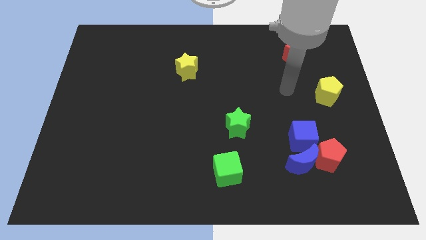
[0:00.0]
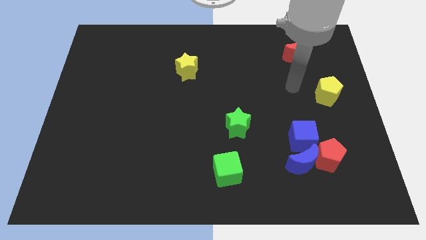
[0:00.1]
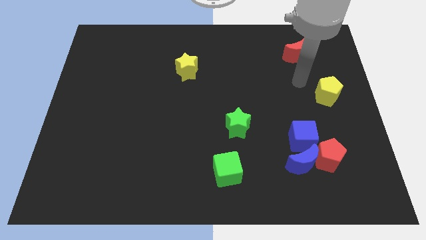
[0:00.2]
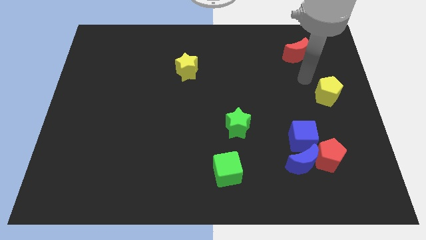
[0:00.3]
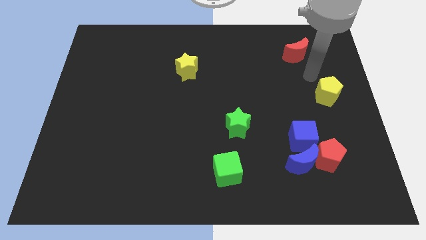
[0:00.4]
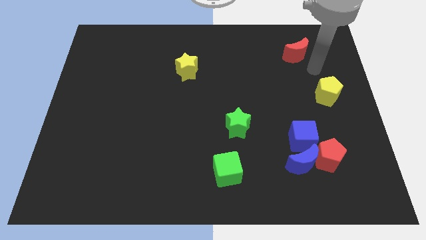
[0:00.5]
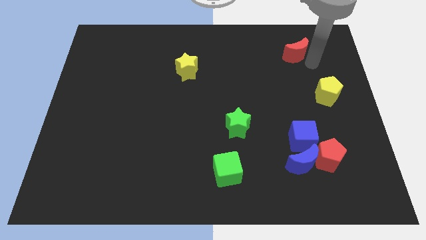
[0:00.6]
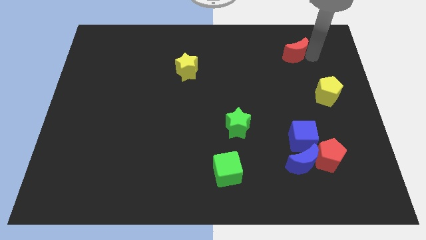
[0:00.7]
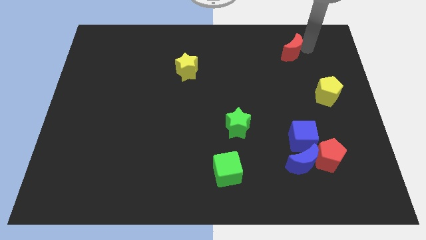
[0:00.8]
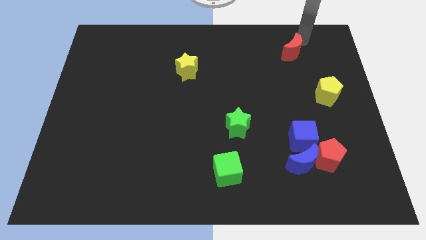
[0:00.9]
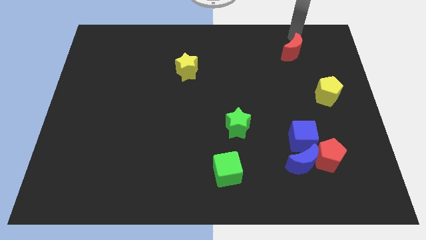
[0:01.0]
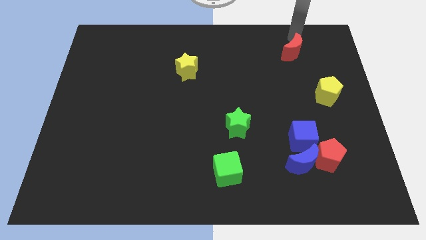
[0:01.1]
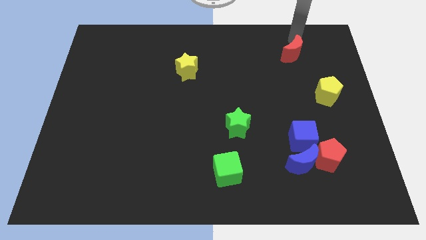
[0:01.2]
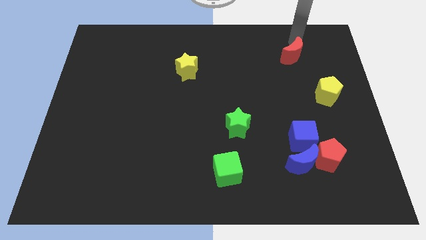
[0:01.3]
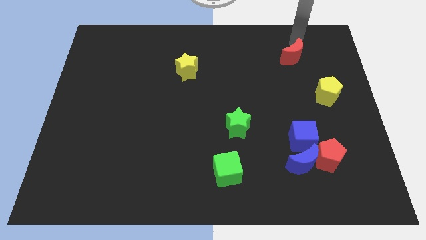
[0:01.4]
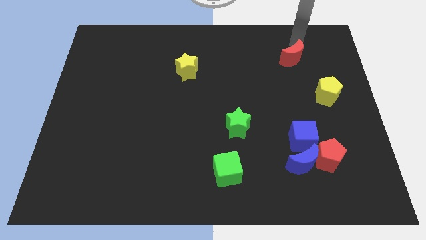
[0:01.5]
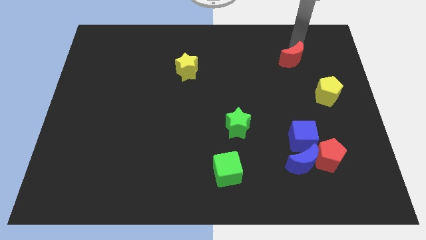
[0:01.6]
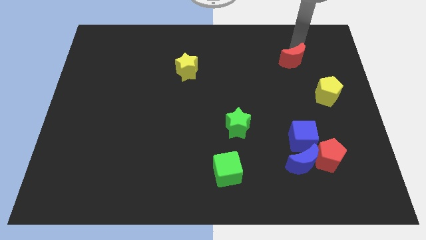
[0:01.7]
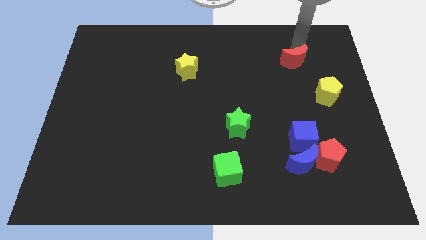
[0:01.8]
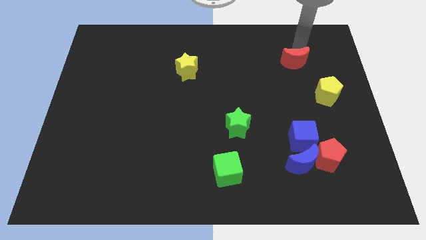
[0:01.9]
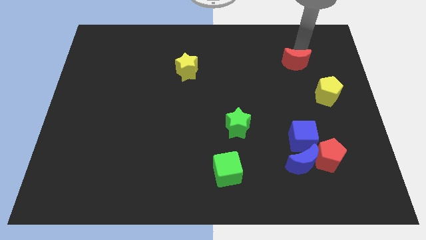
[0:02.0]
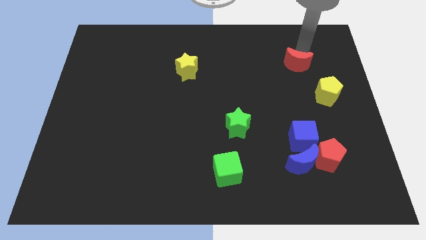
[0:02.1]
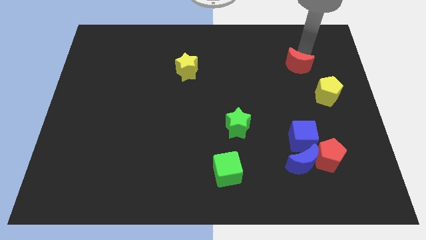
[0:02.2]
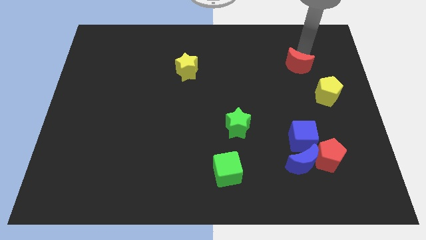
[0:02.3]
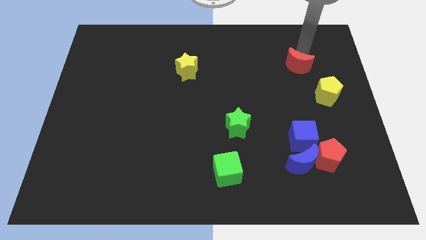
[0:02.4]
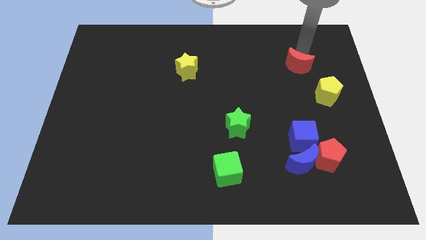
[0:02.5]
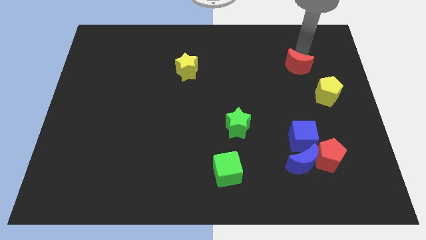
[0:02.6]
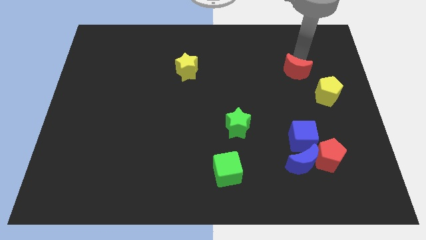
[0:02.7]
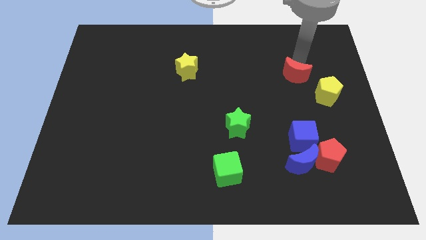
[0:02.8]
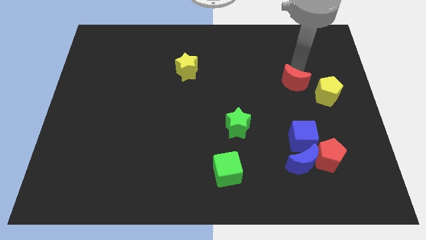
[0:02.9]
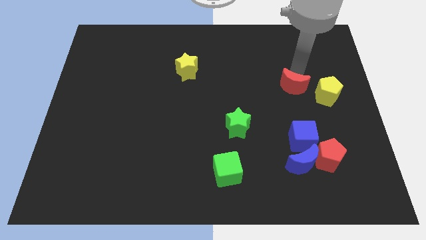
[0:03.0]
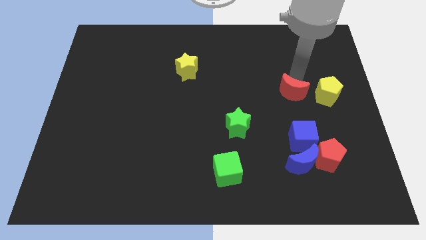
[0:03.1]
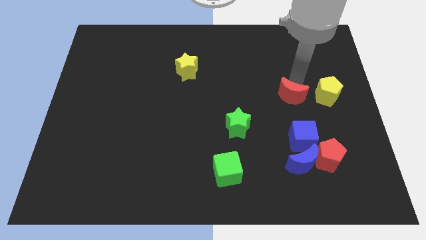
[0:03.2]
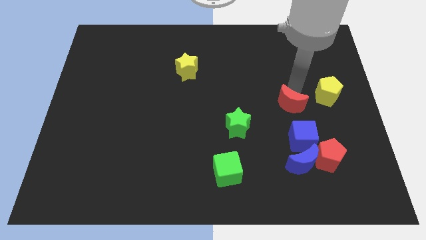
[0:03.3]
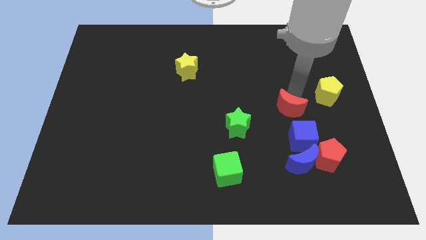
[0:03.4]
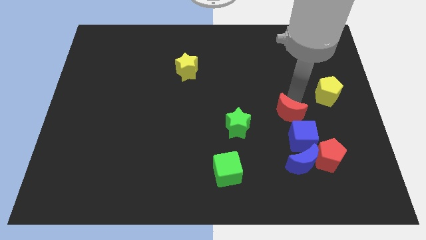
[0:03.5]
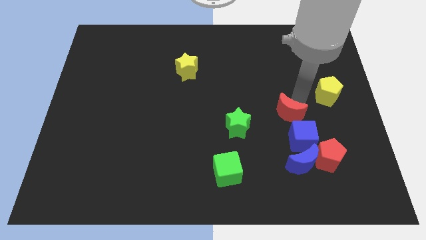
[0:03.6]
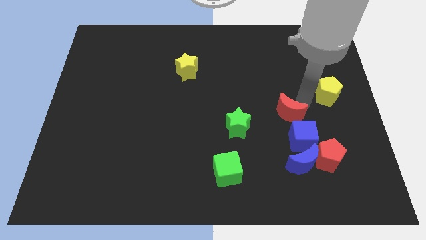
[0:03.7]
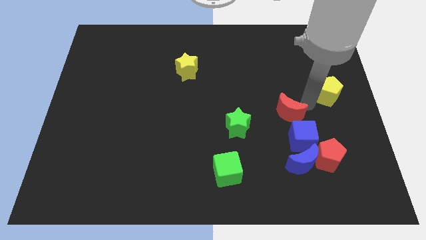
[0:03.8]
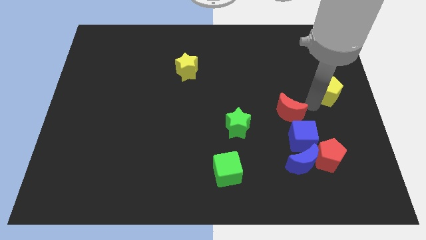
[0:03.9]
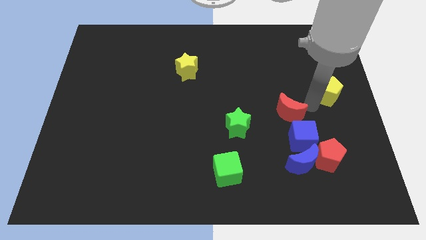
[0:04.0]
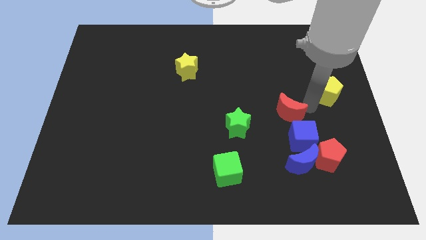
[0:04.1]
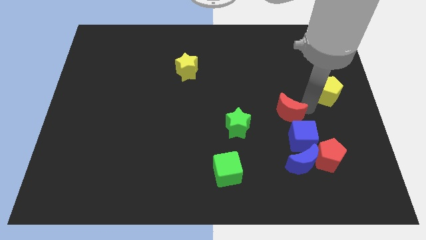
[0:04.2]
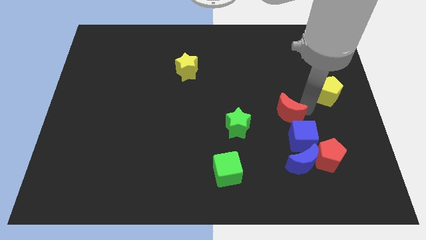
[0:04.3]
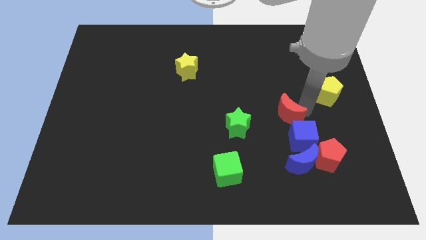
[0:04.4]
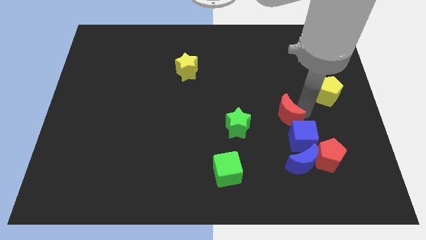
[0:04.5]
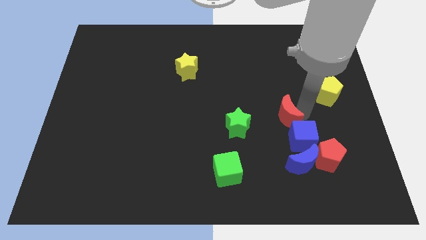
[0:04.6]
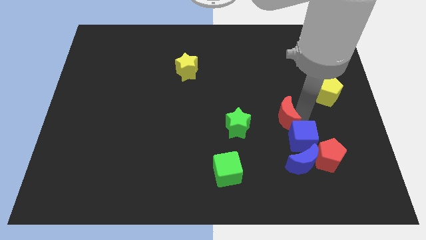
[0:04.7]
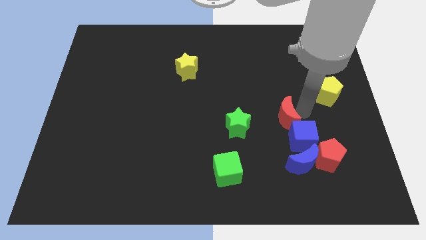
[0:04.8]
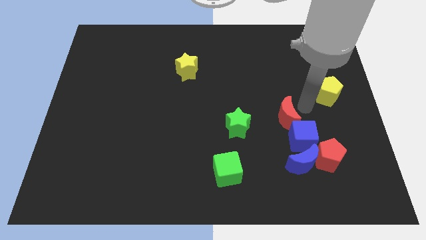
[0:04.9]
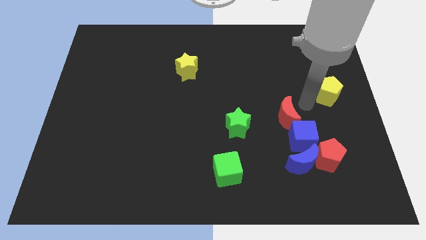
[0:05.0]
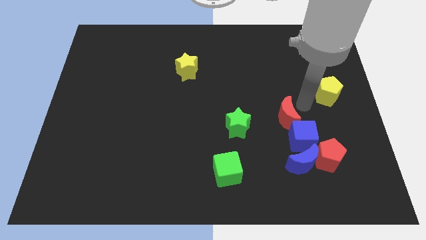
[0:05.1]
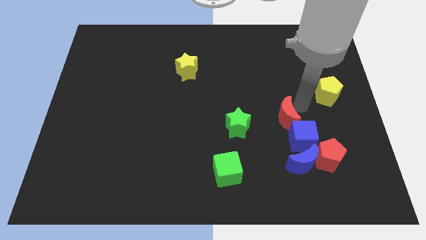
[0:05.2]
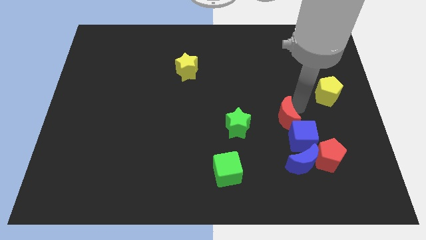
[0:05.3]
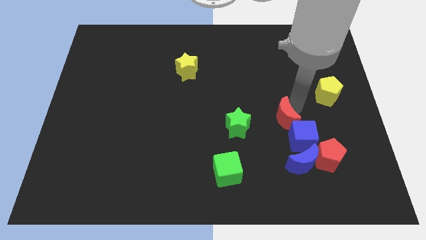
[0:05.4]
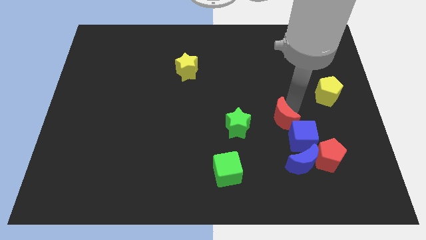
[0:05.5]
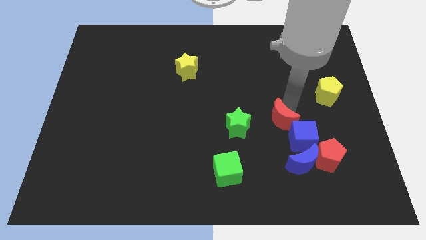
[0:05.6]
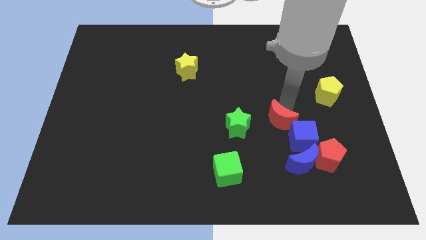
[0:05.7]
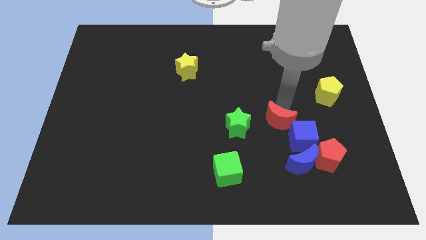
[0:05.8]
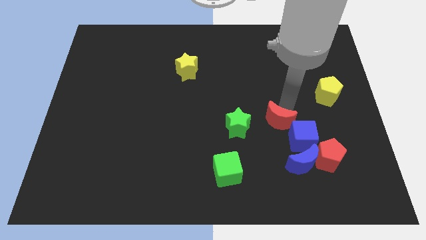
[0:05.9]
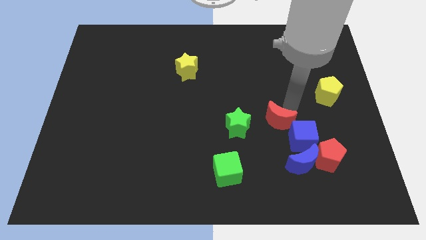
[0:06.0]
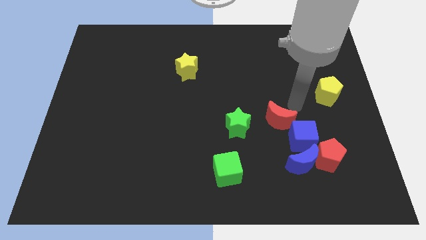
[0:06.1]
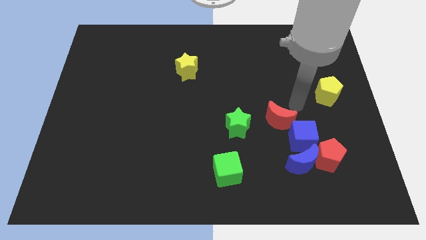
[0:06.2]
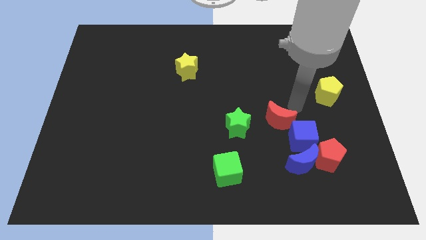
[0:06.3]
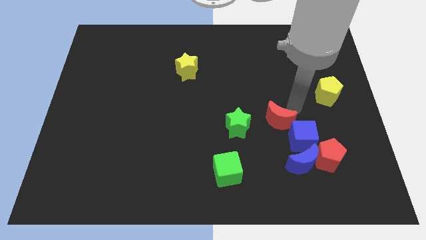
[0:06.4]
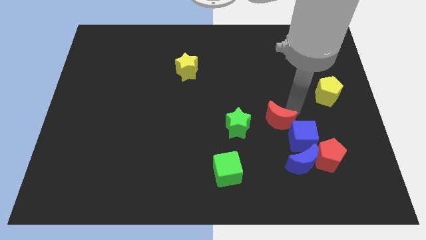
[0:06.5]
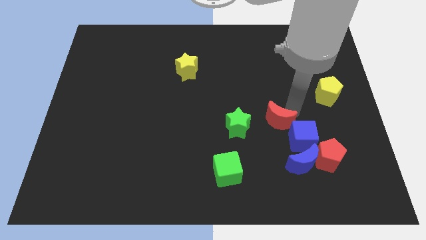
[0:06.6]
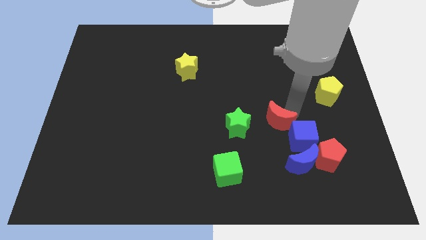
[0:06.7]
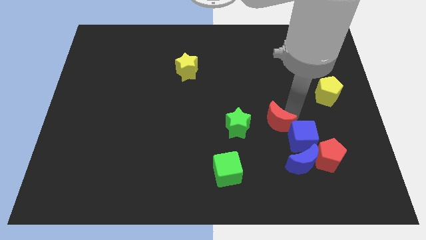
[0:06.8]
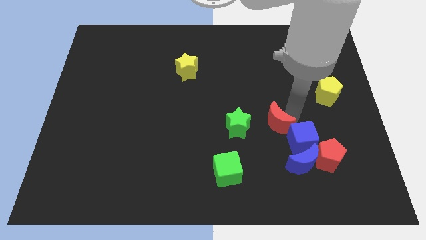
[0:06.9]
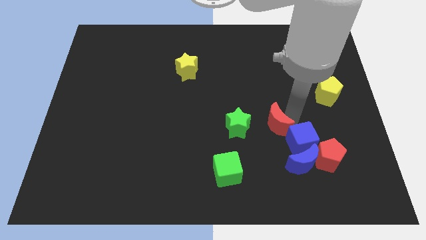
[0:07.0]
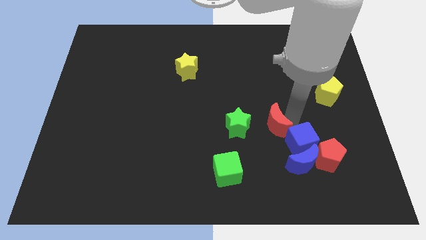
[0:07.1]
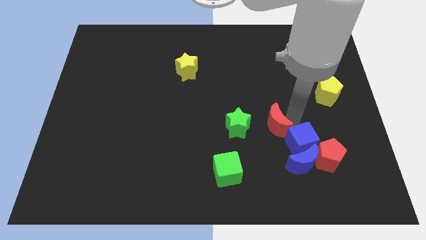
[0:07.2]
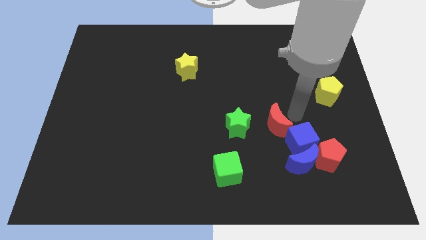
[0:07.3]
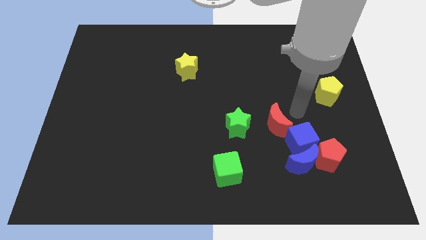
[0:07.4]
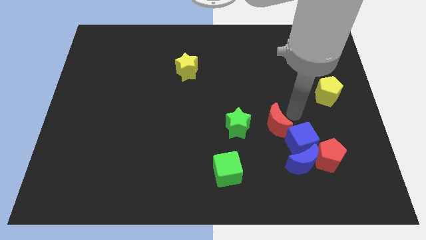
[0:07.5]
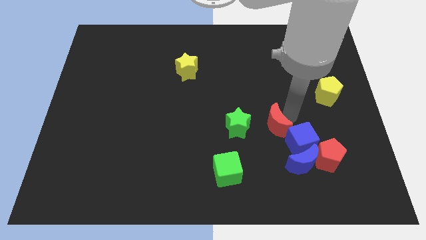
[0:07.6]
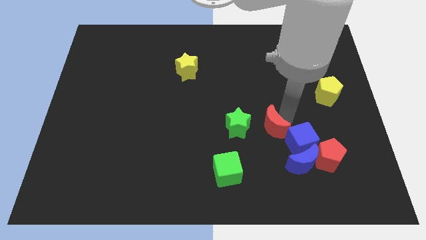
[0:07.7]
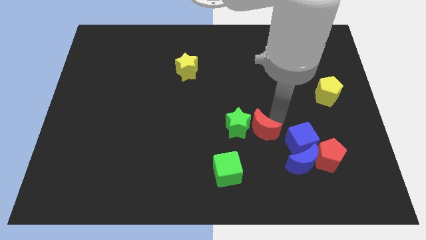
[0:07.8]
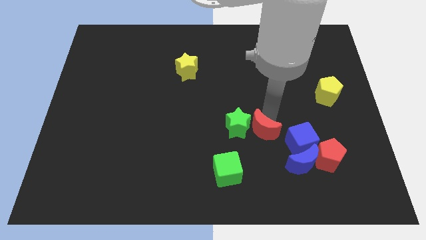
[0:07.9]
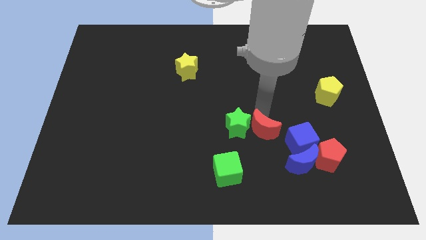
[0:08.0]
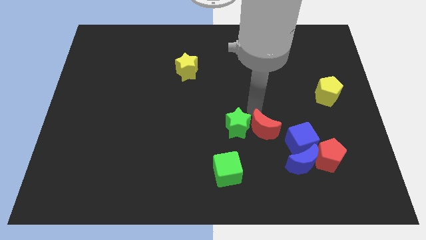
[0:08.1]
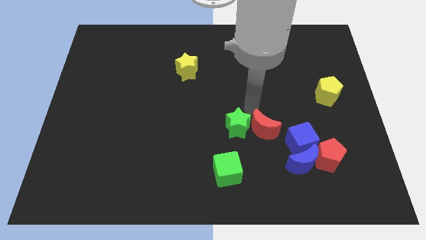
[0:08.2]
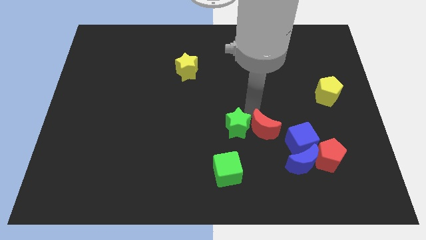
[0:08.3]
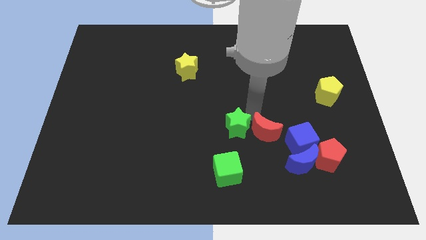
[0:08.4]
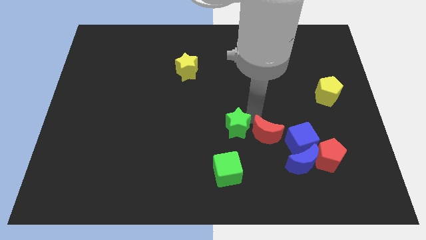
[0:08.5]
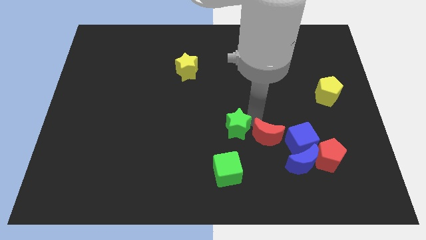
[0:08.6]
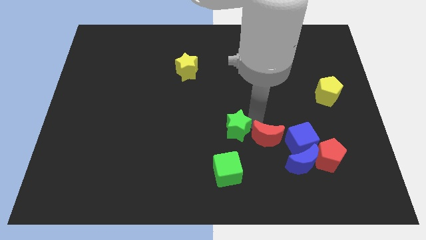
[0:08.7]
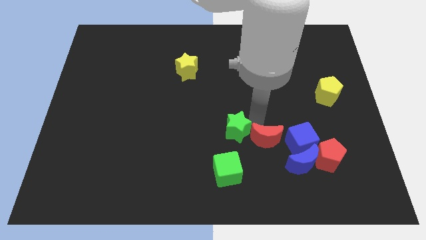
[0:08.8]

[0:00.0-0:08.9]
put the red moon to the left of the red pentagon
